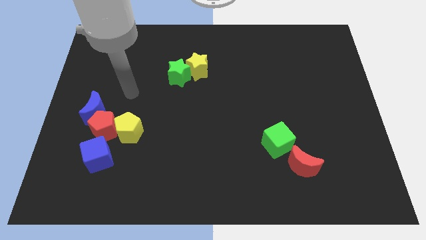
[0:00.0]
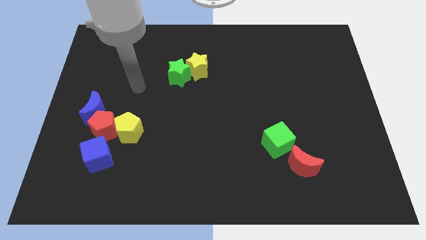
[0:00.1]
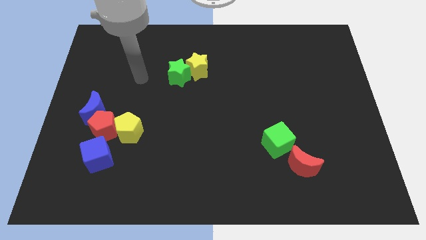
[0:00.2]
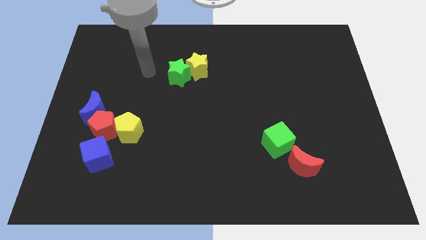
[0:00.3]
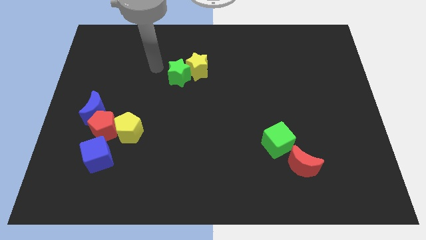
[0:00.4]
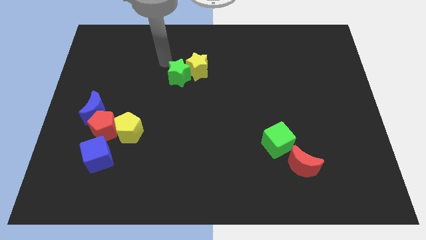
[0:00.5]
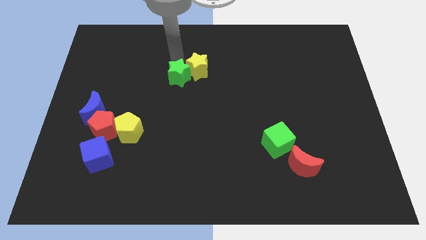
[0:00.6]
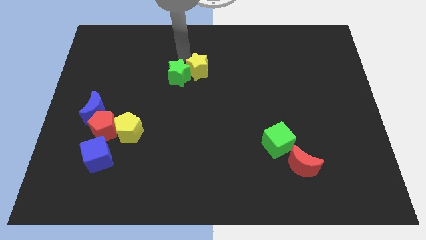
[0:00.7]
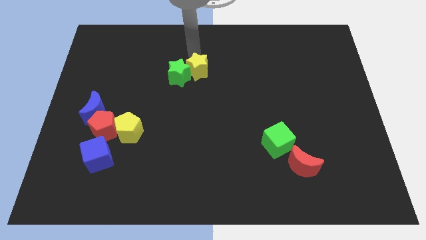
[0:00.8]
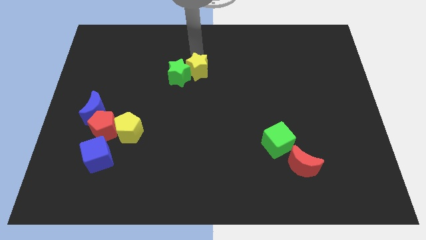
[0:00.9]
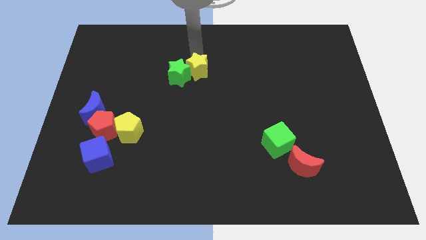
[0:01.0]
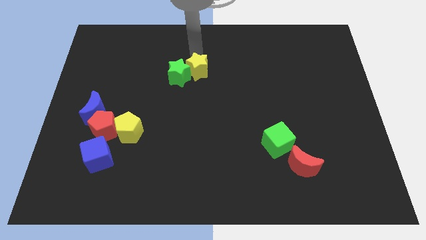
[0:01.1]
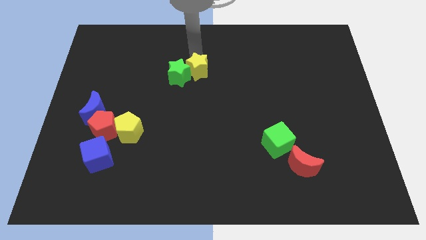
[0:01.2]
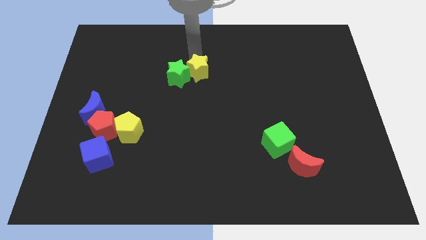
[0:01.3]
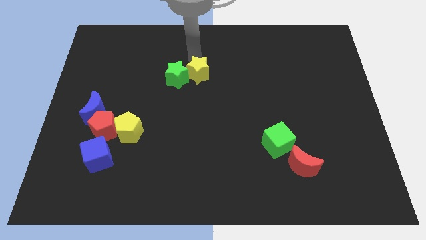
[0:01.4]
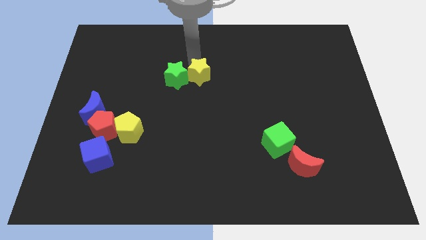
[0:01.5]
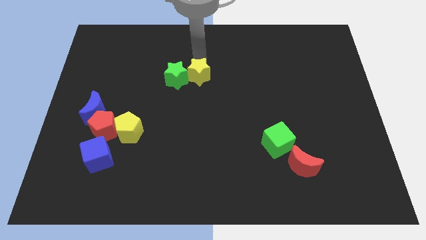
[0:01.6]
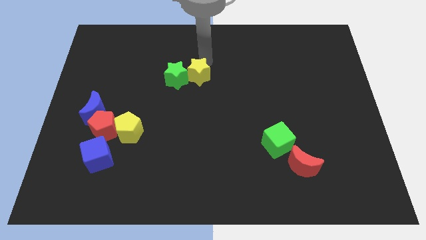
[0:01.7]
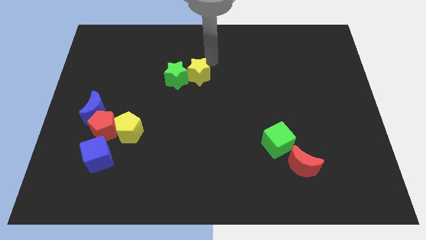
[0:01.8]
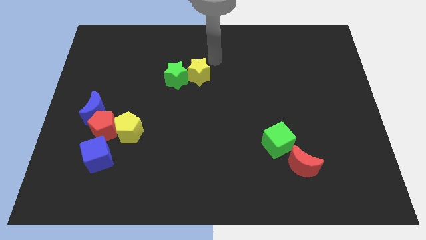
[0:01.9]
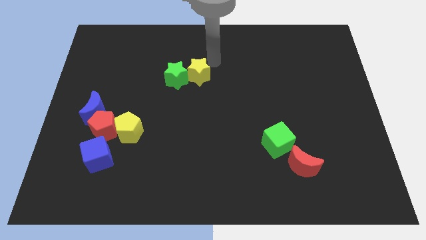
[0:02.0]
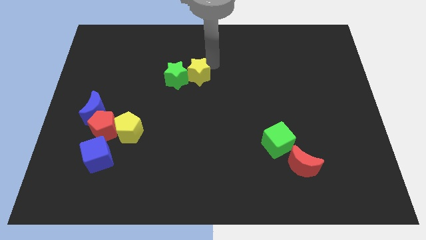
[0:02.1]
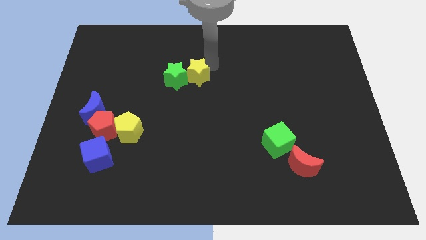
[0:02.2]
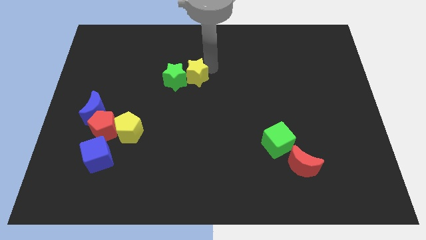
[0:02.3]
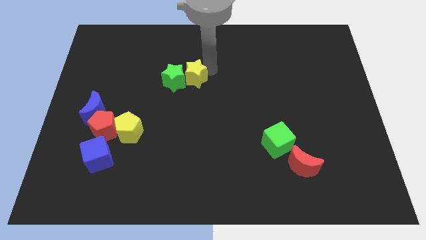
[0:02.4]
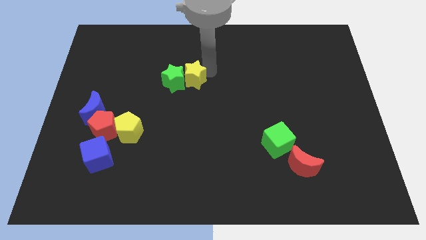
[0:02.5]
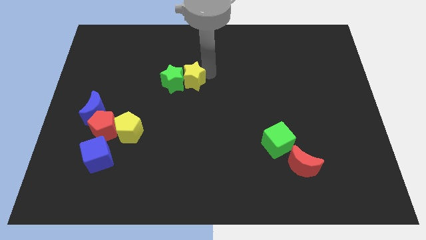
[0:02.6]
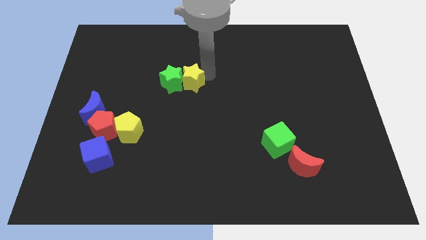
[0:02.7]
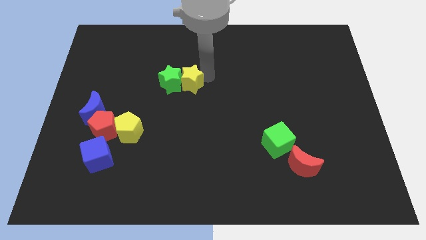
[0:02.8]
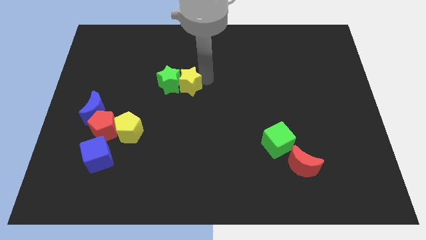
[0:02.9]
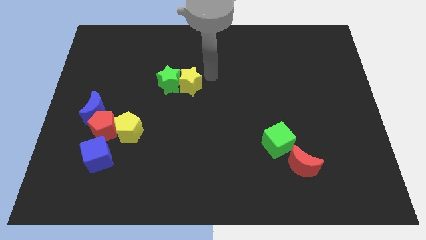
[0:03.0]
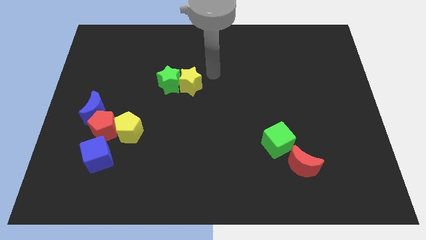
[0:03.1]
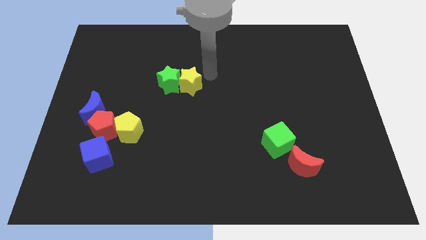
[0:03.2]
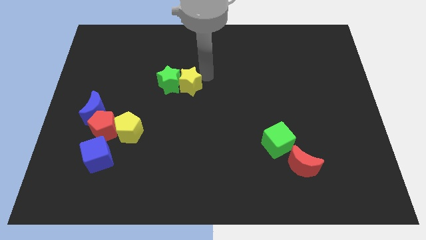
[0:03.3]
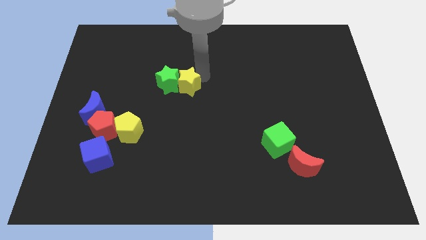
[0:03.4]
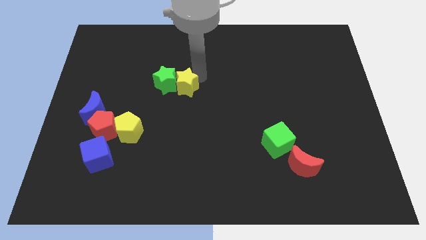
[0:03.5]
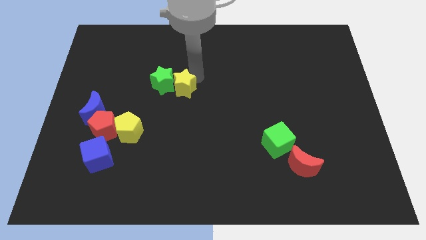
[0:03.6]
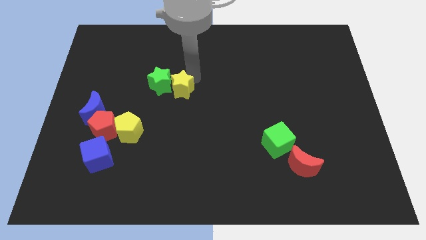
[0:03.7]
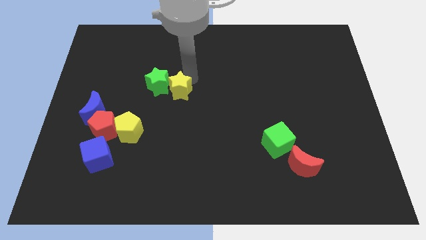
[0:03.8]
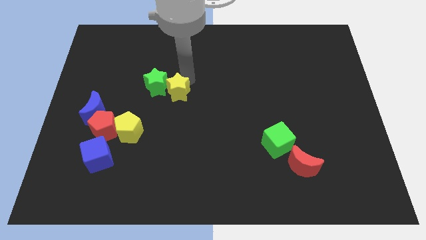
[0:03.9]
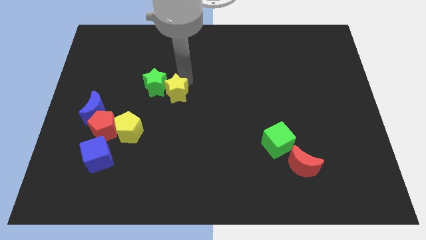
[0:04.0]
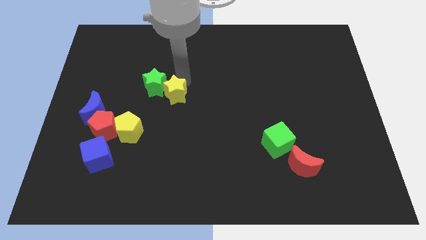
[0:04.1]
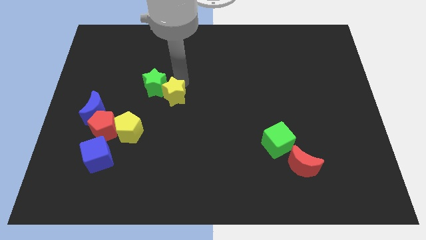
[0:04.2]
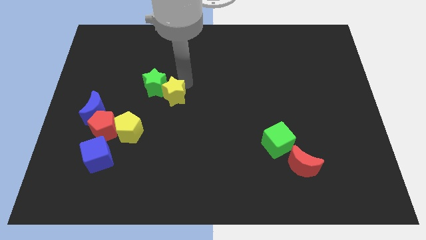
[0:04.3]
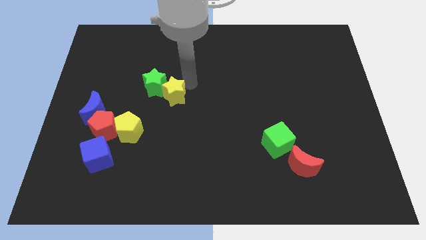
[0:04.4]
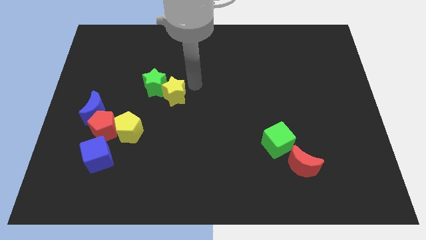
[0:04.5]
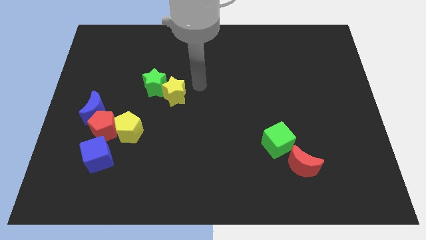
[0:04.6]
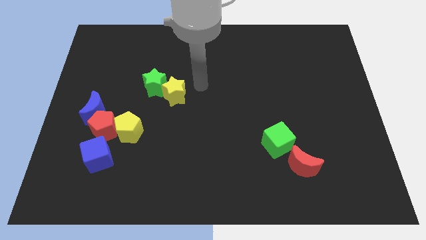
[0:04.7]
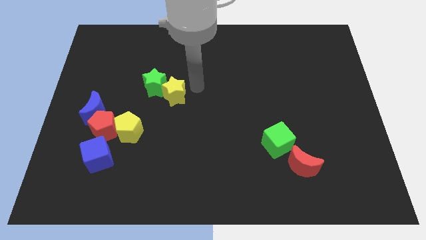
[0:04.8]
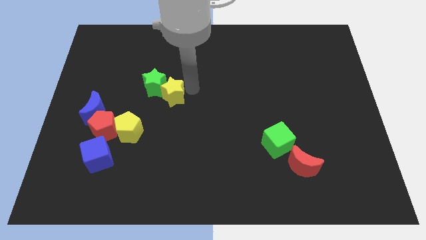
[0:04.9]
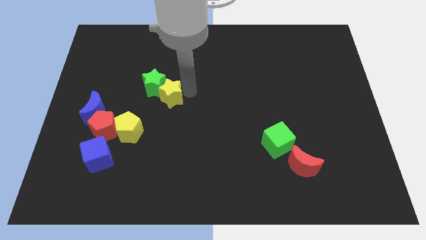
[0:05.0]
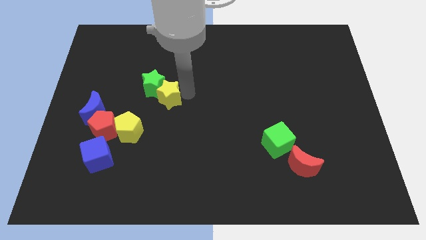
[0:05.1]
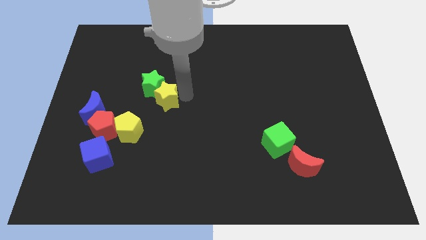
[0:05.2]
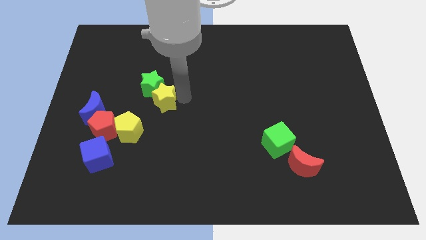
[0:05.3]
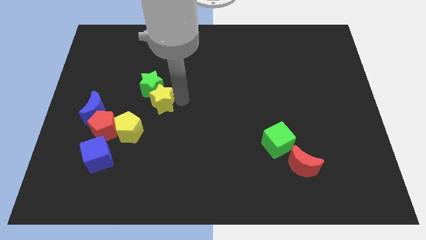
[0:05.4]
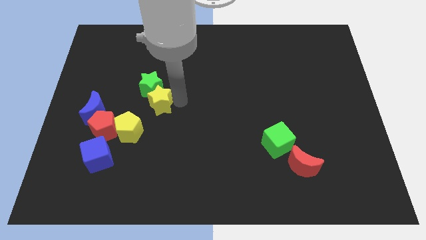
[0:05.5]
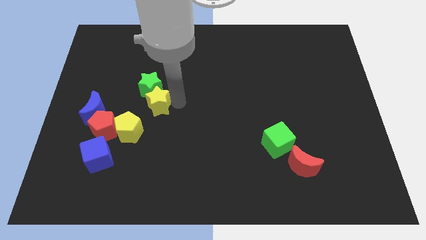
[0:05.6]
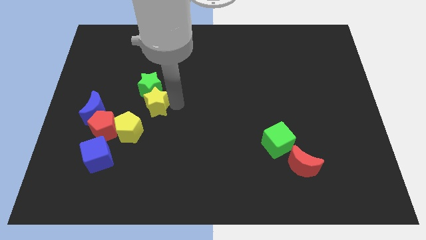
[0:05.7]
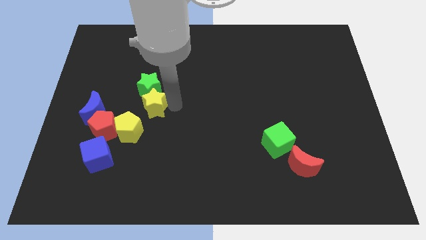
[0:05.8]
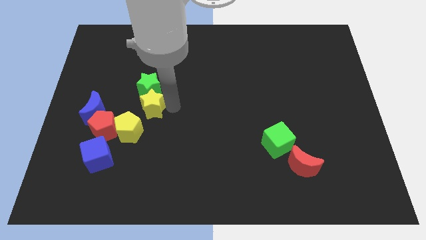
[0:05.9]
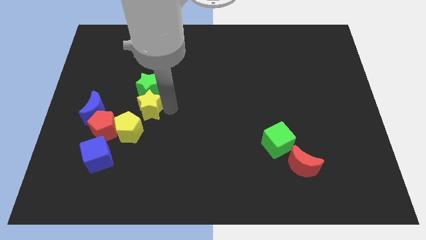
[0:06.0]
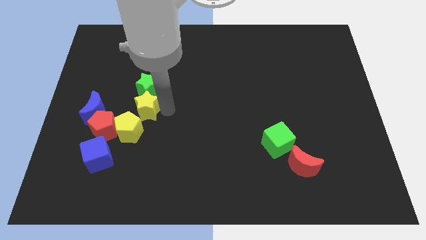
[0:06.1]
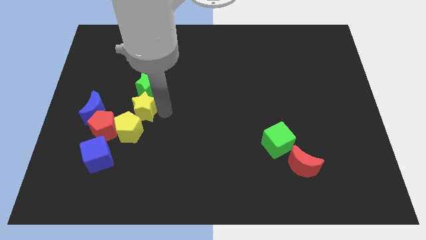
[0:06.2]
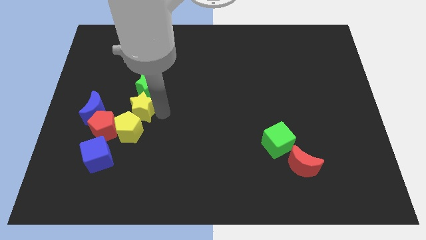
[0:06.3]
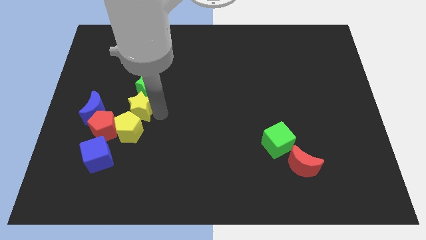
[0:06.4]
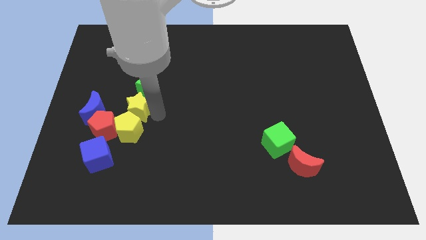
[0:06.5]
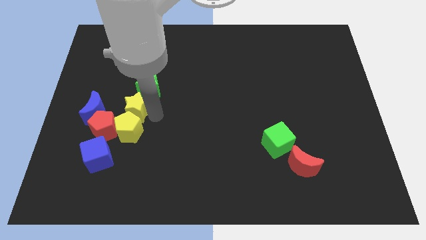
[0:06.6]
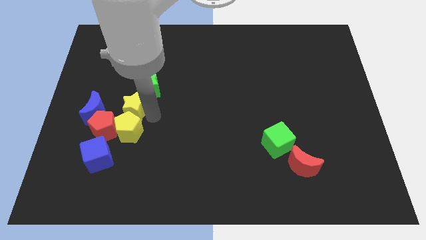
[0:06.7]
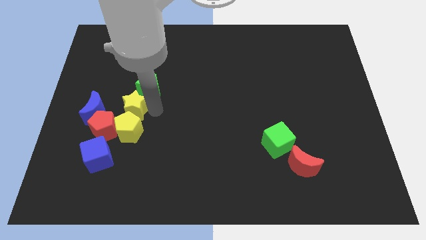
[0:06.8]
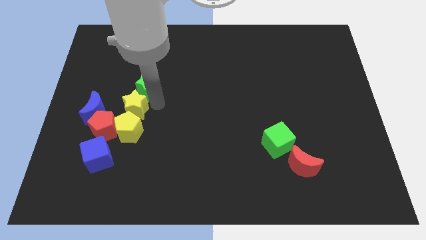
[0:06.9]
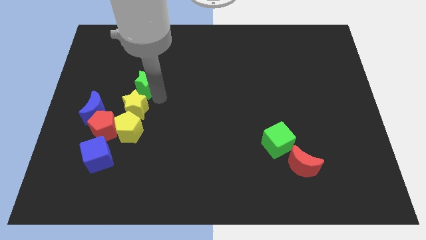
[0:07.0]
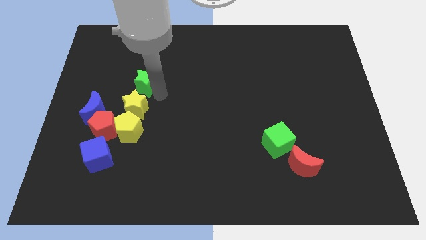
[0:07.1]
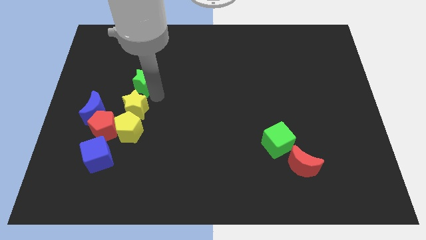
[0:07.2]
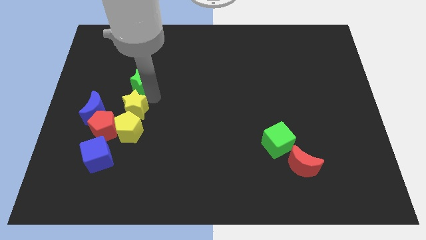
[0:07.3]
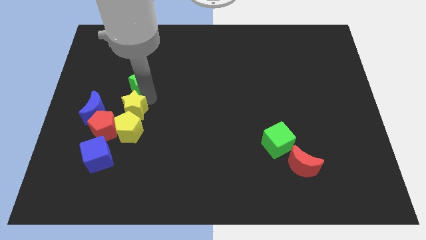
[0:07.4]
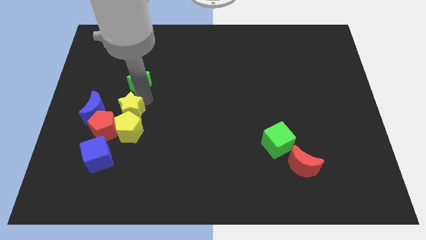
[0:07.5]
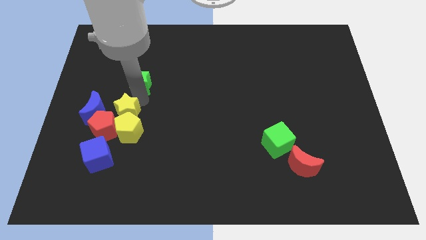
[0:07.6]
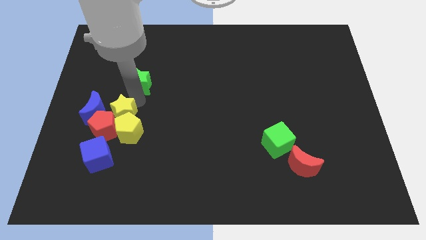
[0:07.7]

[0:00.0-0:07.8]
push the yellow star towards the red pentagon
